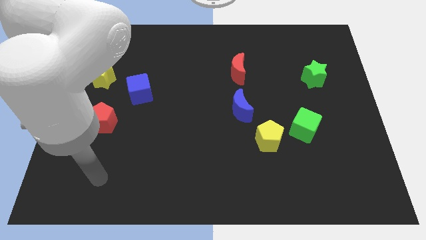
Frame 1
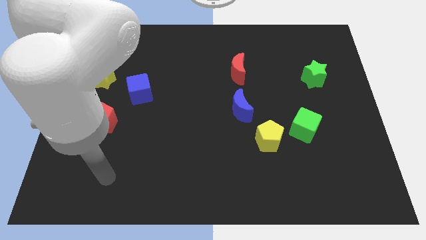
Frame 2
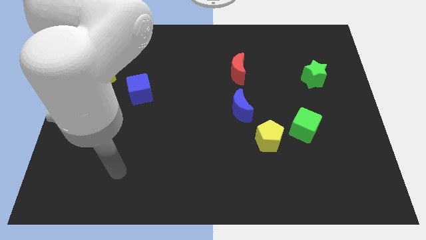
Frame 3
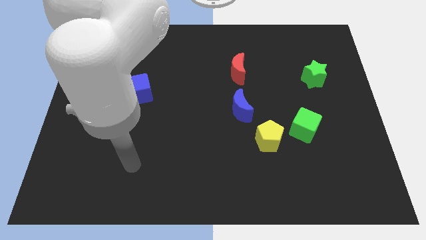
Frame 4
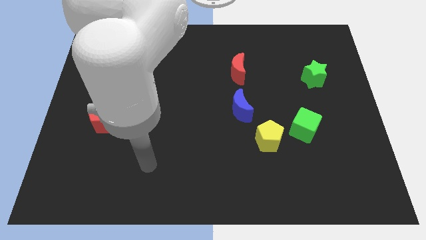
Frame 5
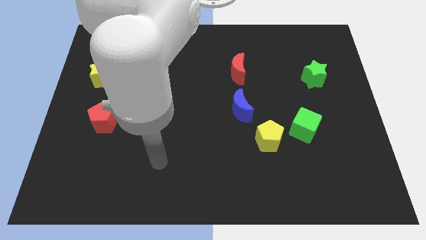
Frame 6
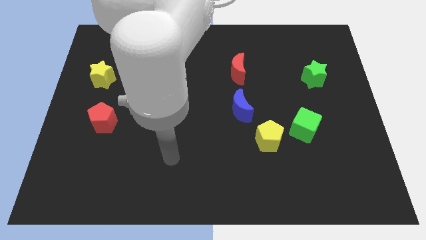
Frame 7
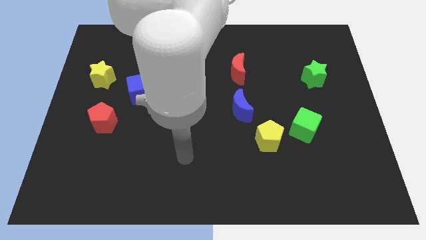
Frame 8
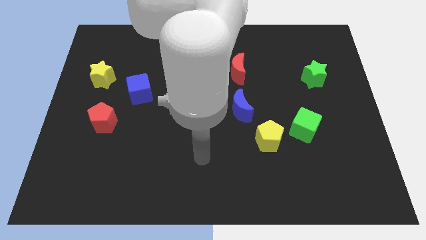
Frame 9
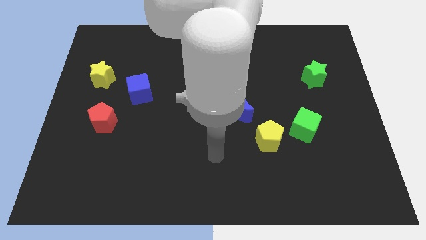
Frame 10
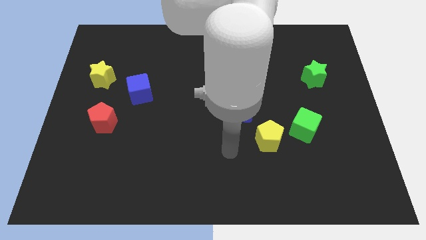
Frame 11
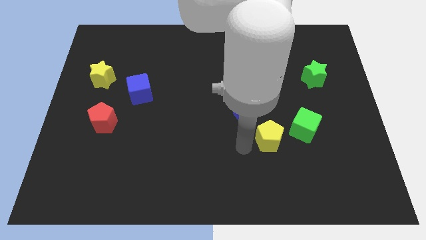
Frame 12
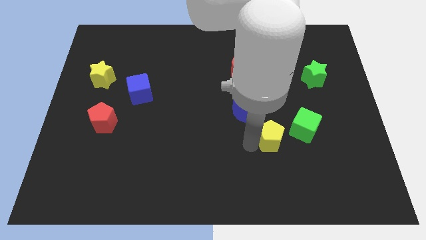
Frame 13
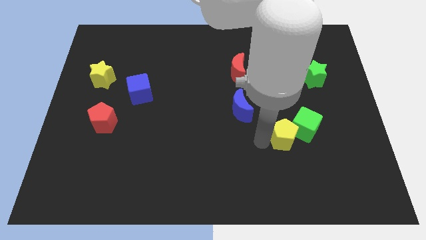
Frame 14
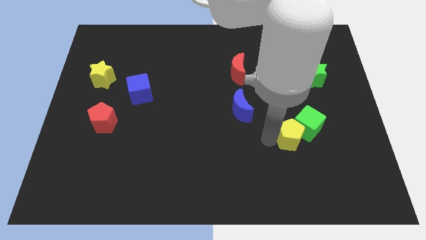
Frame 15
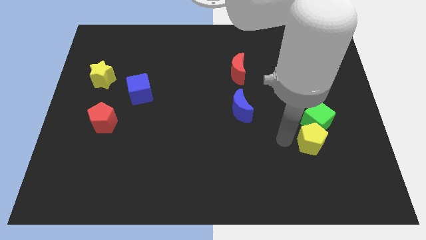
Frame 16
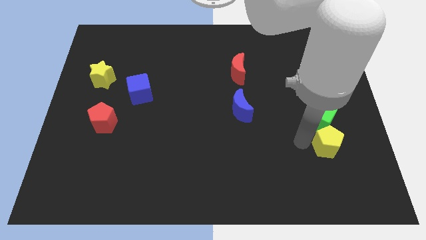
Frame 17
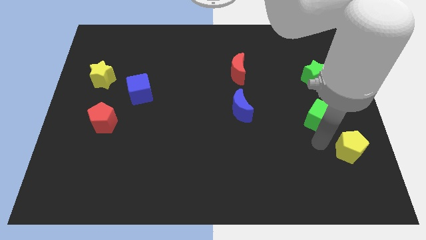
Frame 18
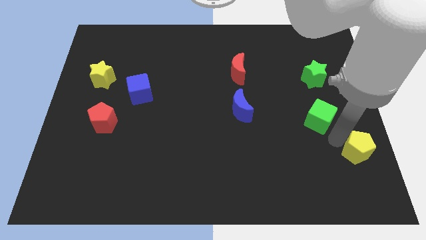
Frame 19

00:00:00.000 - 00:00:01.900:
separate the green cube from the yellow pentagon

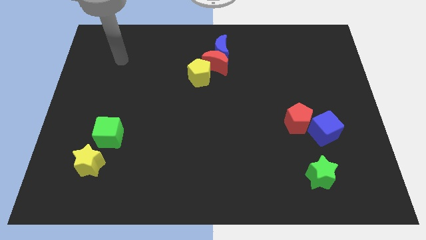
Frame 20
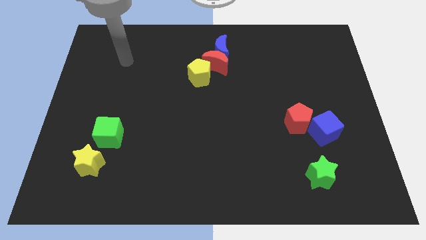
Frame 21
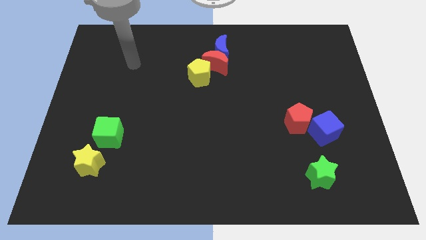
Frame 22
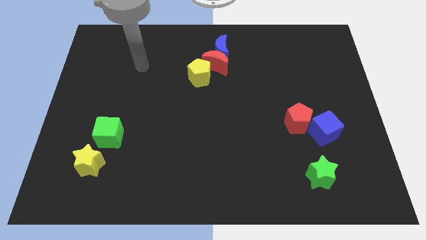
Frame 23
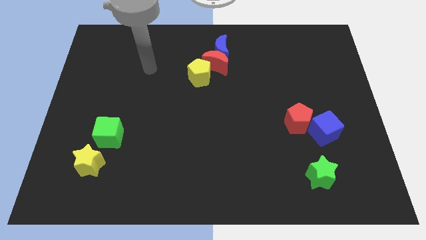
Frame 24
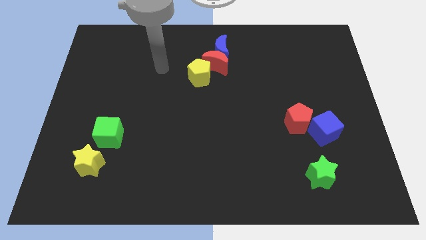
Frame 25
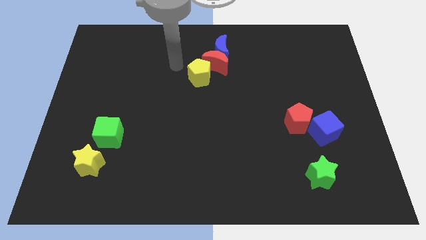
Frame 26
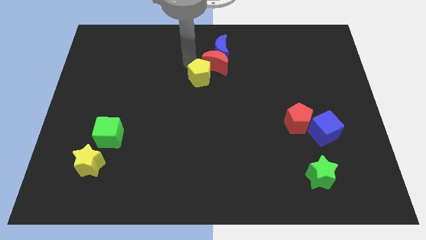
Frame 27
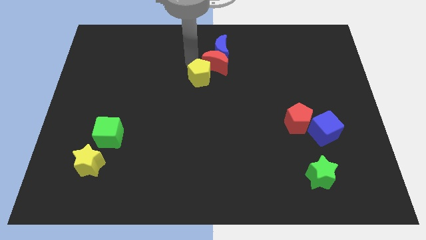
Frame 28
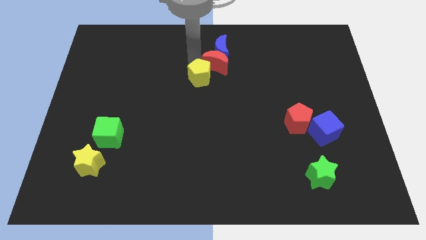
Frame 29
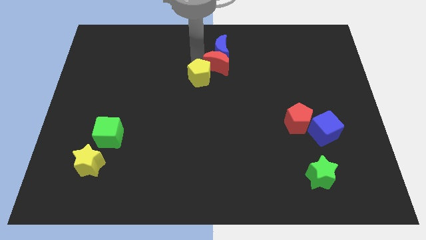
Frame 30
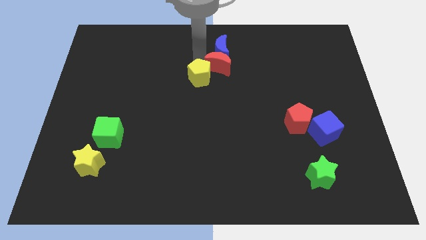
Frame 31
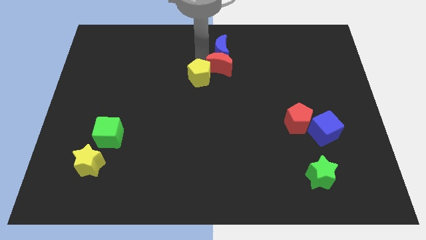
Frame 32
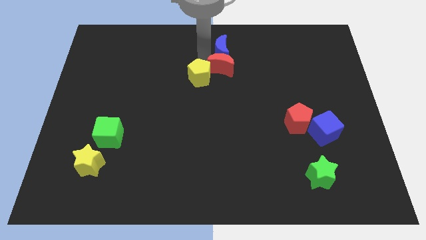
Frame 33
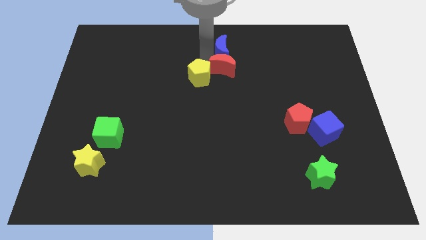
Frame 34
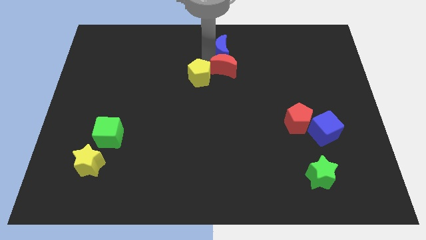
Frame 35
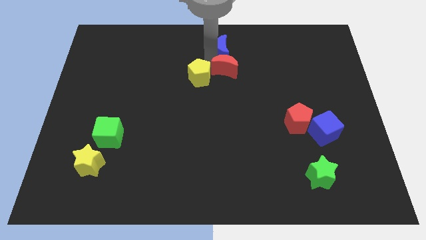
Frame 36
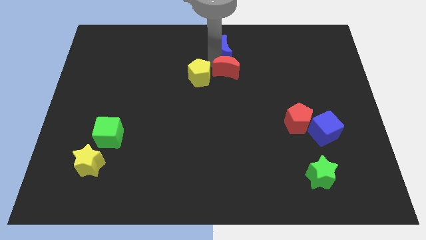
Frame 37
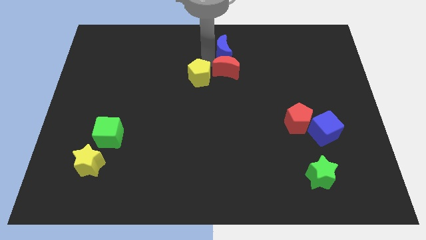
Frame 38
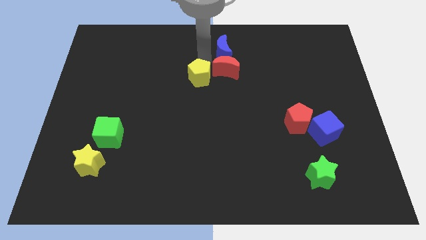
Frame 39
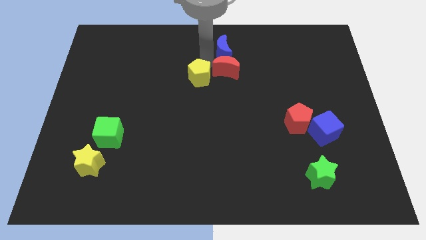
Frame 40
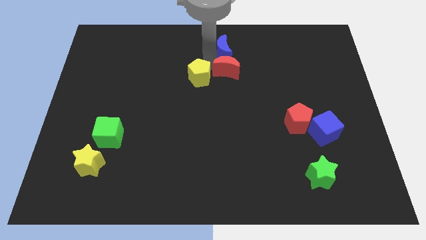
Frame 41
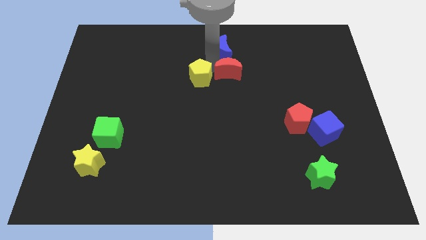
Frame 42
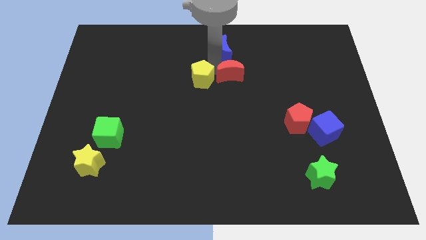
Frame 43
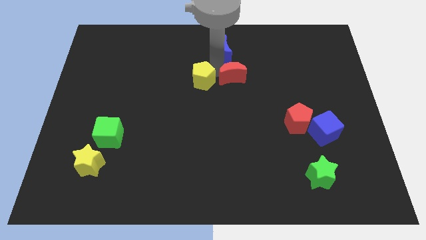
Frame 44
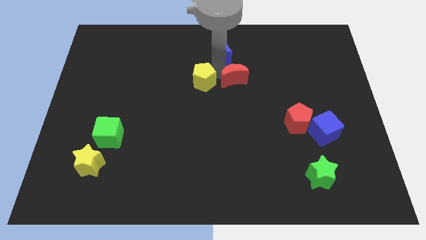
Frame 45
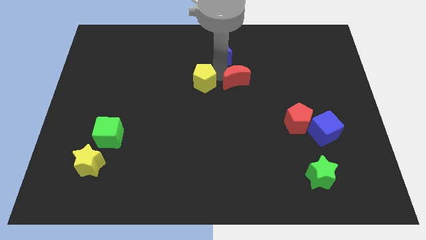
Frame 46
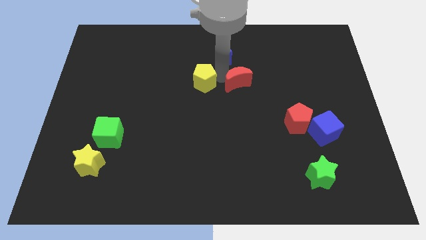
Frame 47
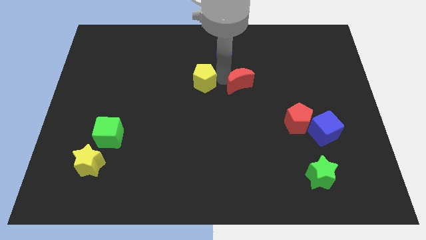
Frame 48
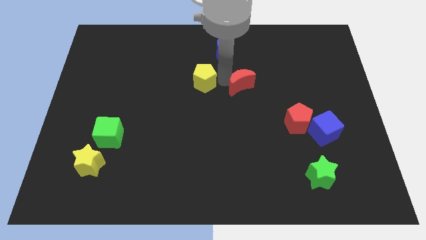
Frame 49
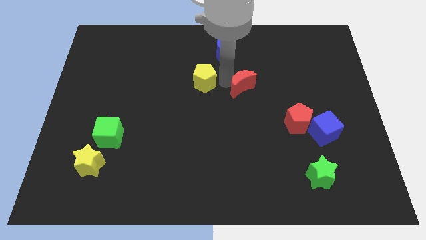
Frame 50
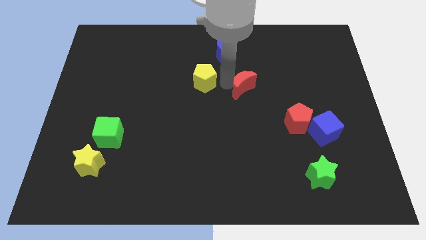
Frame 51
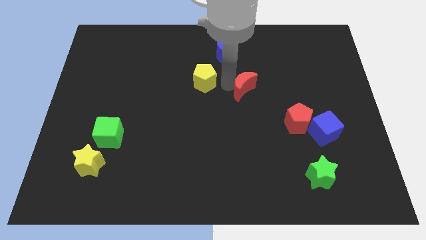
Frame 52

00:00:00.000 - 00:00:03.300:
pull the red moon apart from the blue moon and yellow pentagon

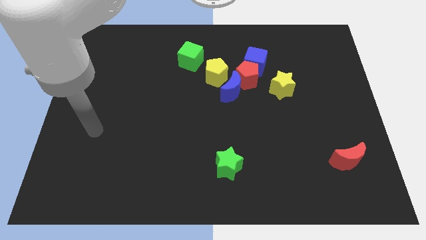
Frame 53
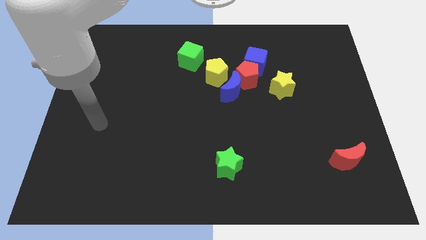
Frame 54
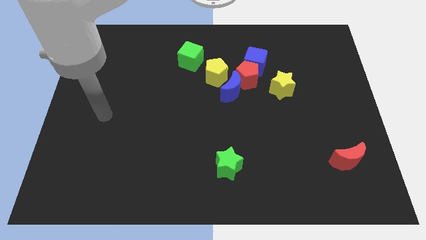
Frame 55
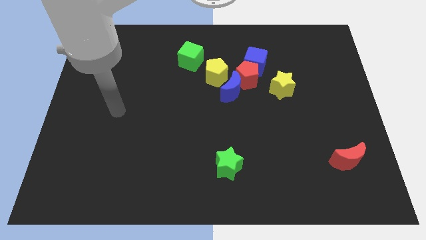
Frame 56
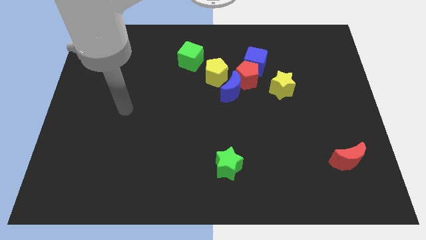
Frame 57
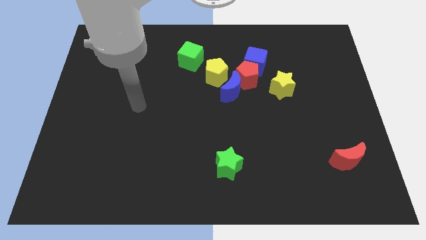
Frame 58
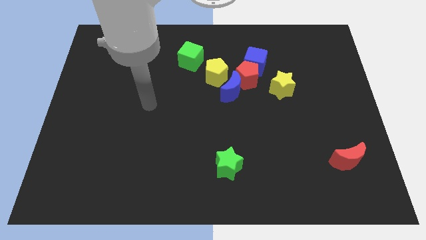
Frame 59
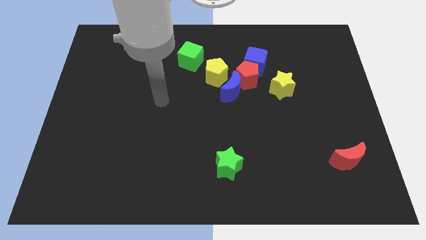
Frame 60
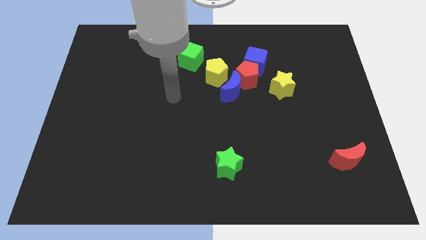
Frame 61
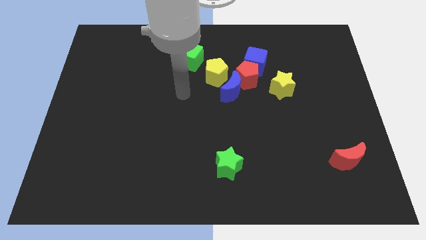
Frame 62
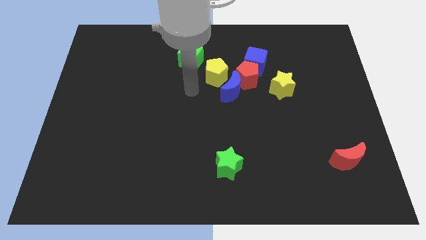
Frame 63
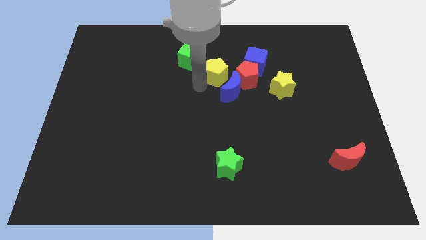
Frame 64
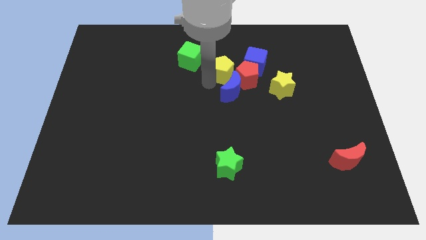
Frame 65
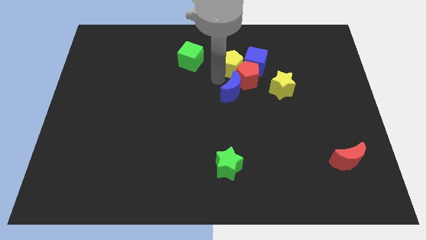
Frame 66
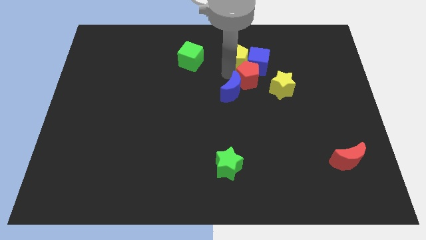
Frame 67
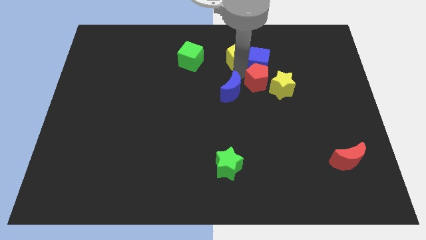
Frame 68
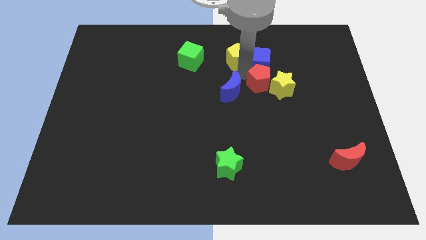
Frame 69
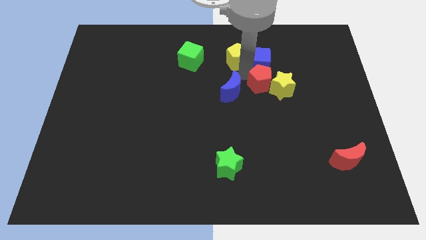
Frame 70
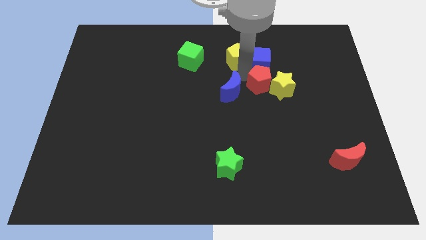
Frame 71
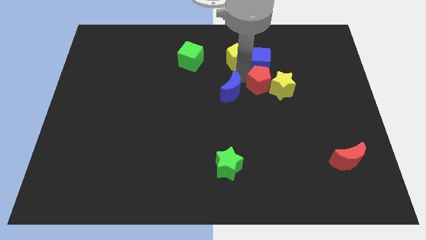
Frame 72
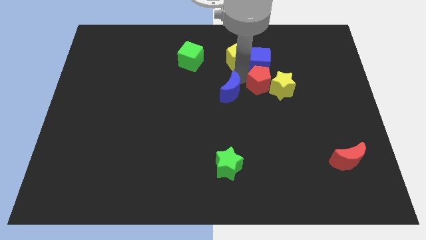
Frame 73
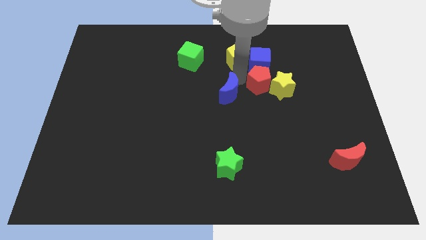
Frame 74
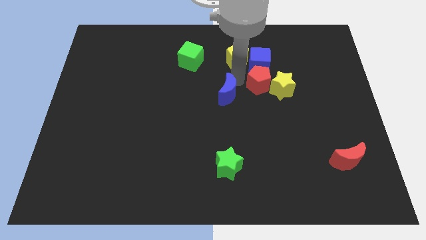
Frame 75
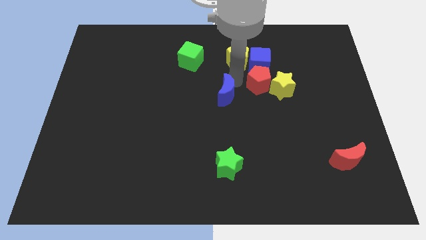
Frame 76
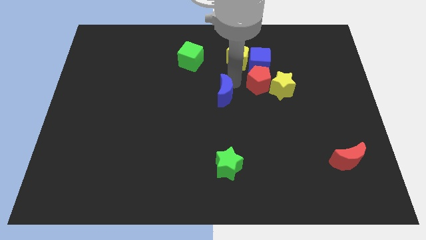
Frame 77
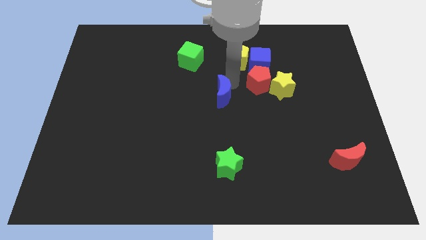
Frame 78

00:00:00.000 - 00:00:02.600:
pull the blue moon apart from the red pentagon and yellow pentagon

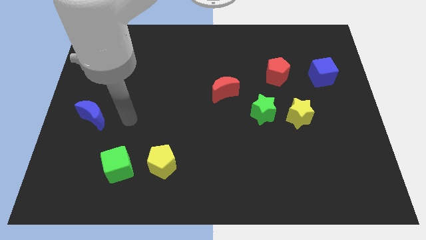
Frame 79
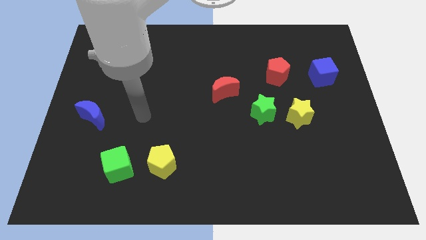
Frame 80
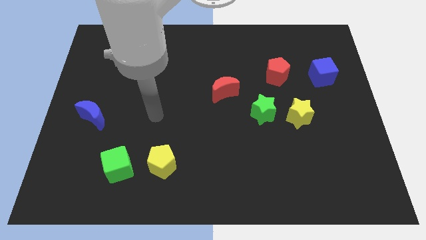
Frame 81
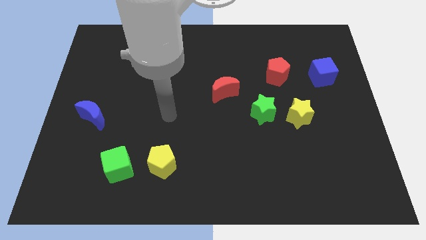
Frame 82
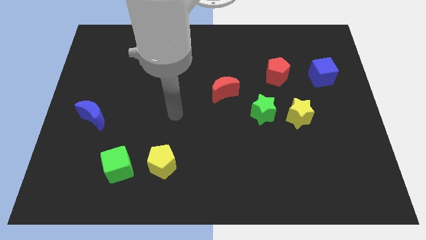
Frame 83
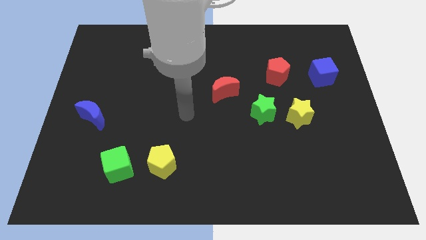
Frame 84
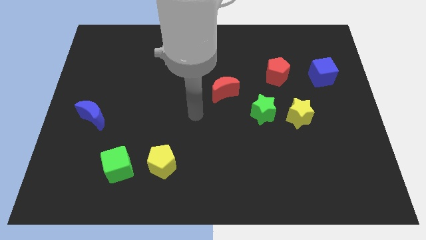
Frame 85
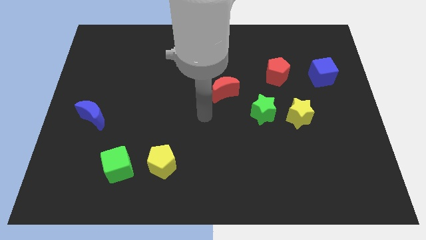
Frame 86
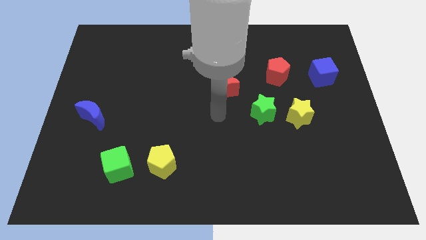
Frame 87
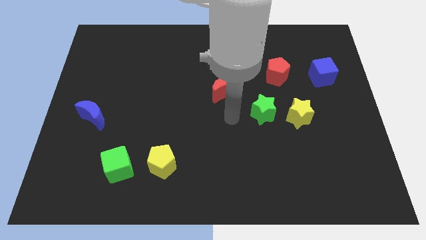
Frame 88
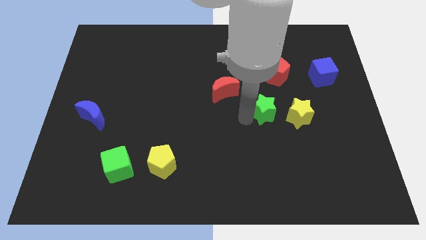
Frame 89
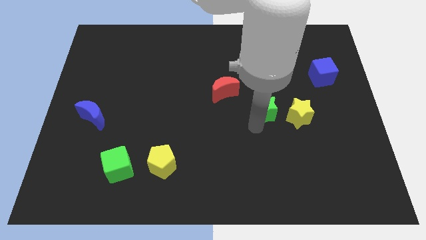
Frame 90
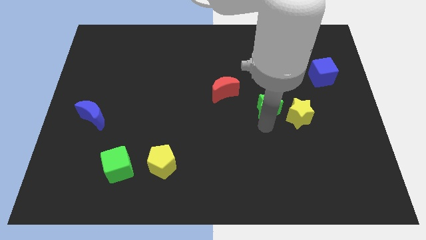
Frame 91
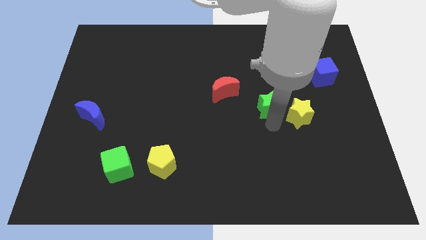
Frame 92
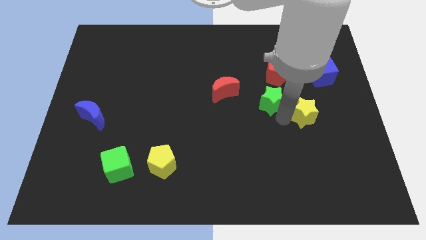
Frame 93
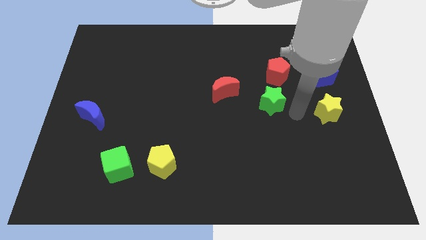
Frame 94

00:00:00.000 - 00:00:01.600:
separate the green star from the yellow star
